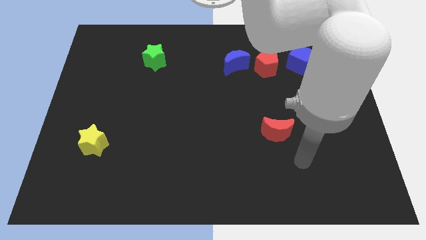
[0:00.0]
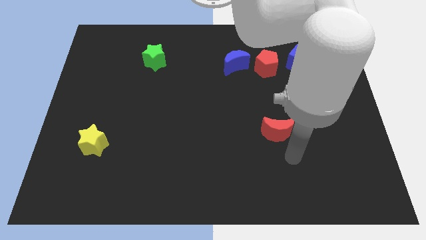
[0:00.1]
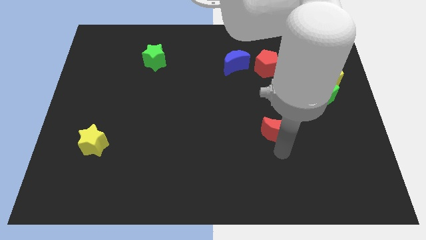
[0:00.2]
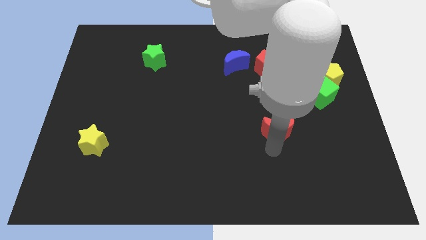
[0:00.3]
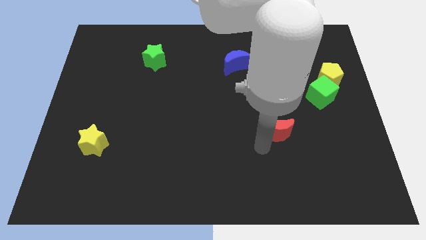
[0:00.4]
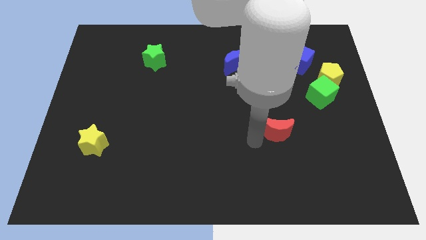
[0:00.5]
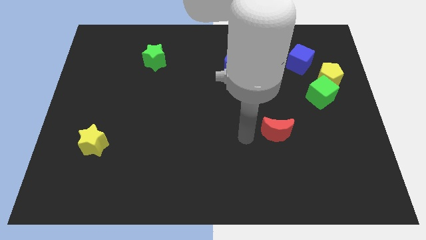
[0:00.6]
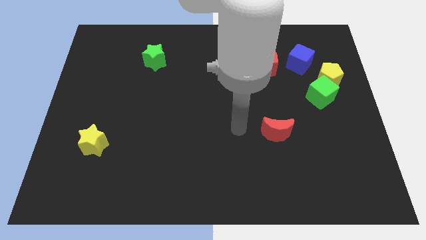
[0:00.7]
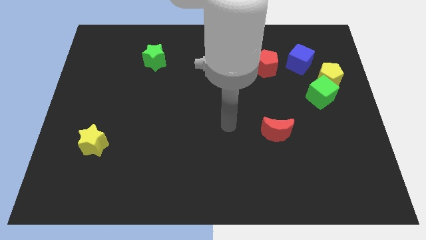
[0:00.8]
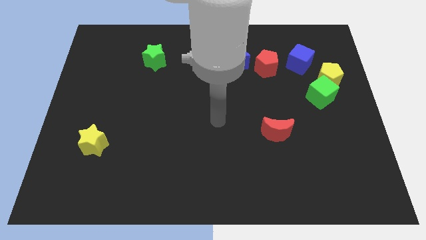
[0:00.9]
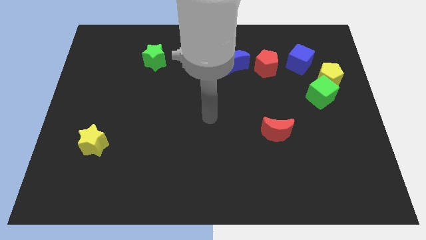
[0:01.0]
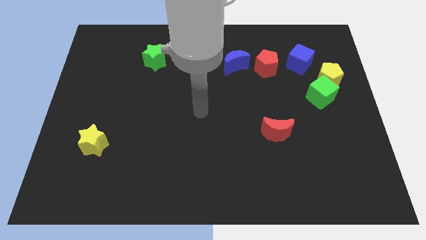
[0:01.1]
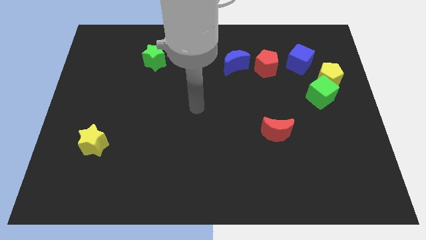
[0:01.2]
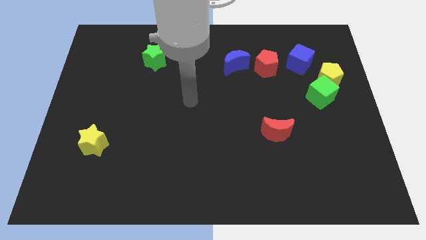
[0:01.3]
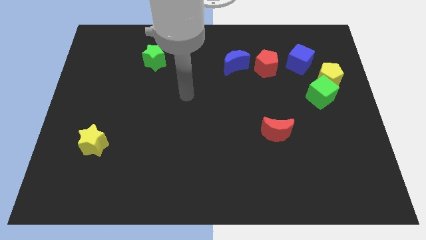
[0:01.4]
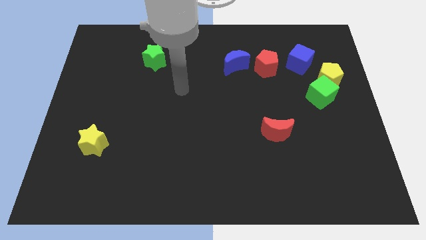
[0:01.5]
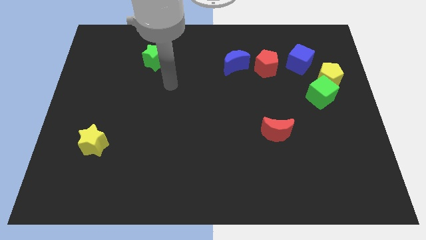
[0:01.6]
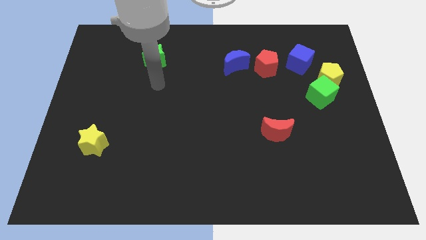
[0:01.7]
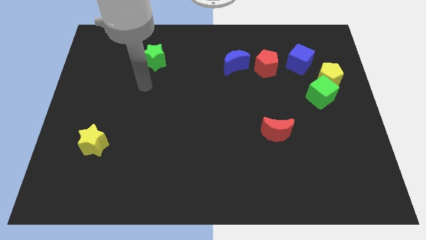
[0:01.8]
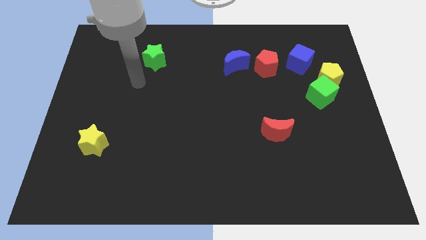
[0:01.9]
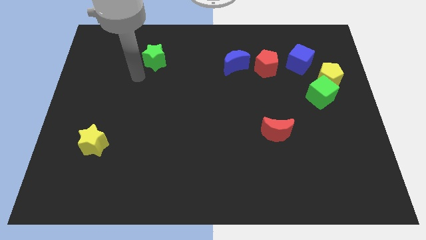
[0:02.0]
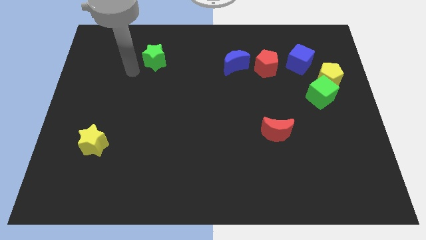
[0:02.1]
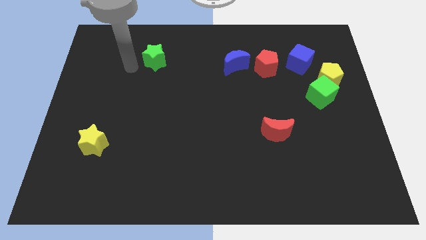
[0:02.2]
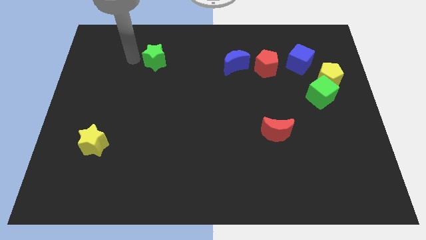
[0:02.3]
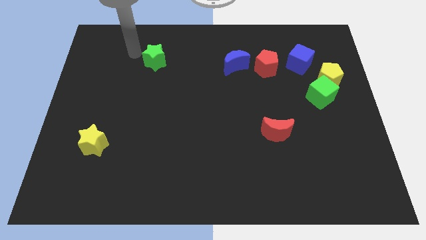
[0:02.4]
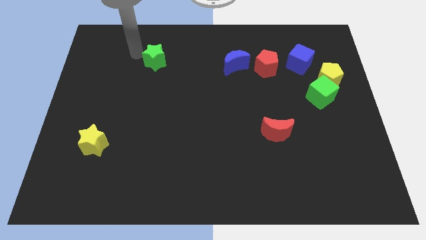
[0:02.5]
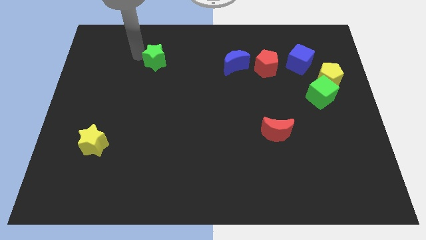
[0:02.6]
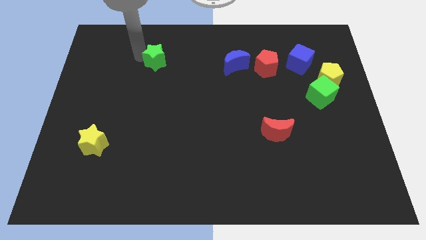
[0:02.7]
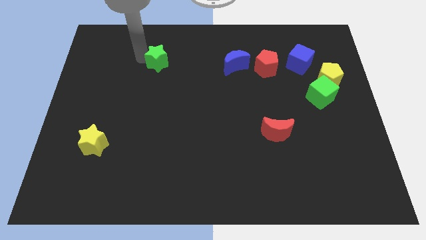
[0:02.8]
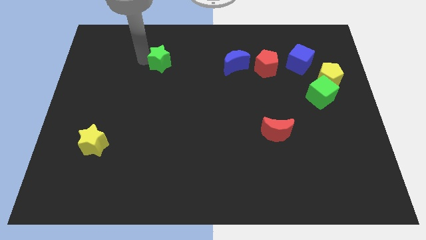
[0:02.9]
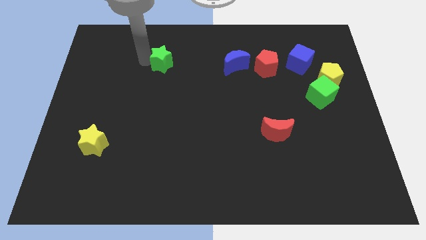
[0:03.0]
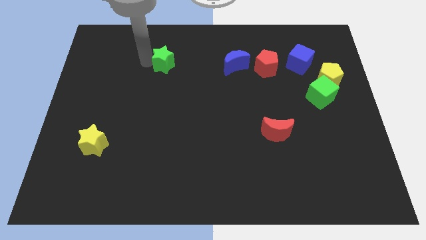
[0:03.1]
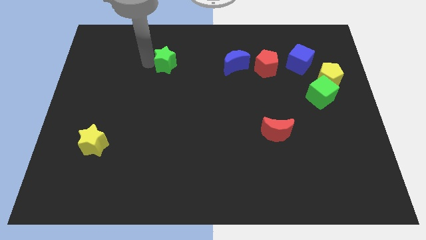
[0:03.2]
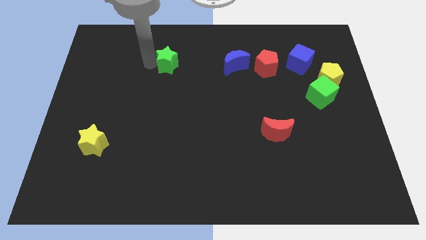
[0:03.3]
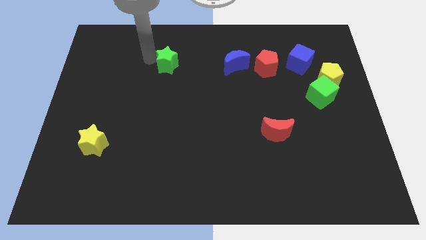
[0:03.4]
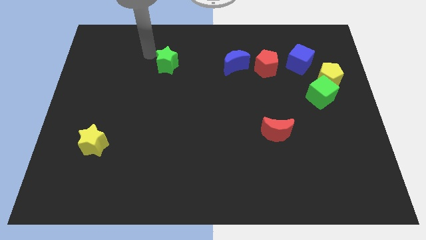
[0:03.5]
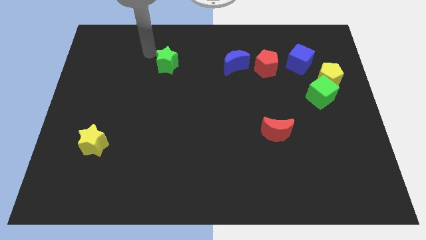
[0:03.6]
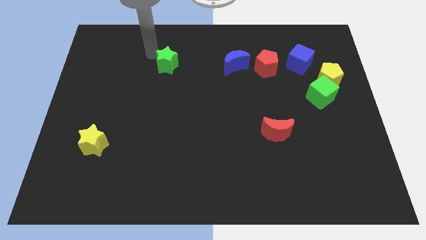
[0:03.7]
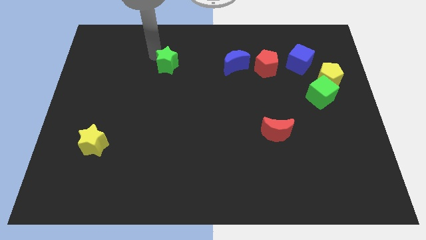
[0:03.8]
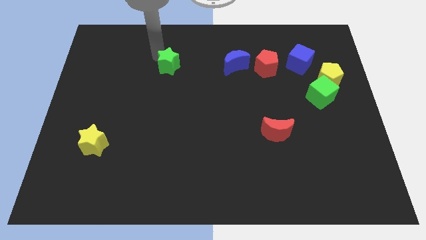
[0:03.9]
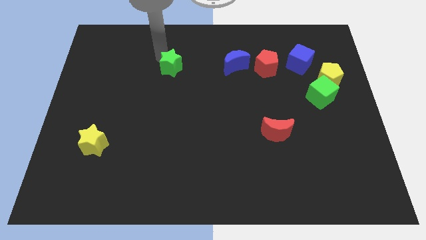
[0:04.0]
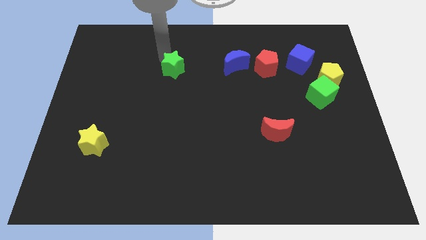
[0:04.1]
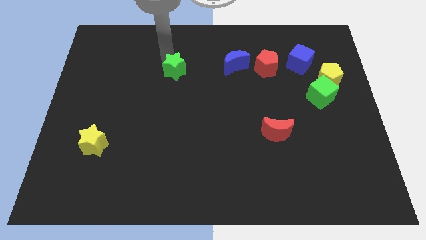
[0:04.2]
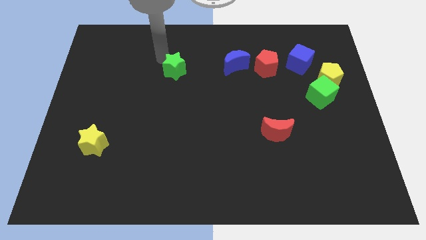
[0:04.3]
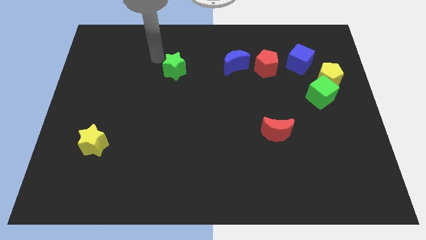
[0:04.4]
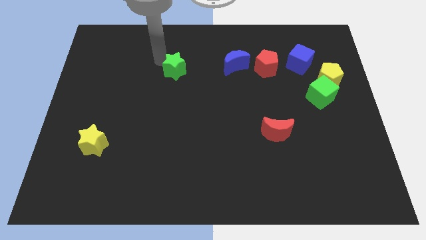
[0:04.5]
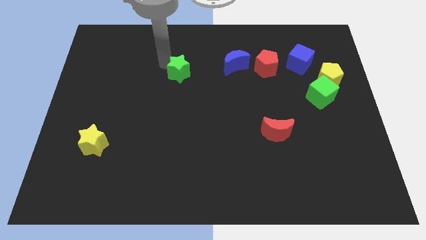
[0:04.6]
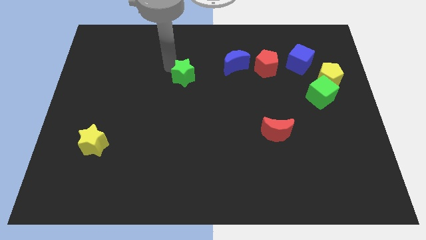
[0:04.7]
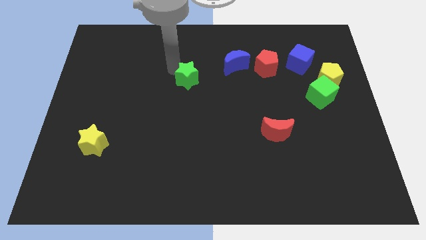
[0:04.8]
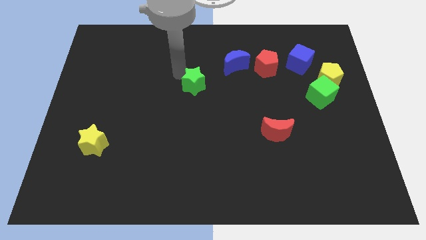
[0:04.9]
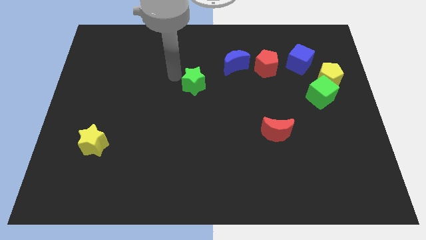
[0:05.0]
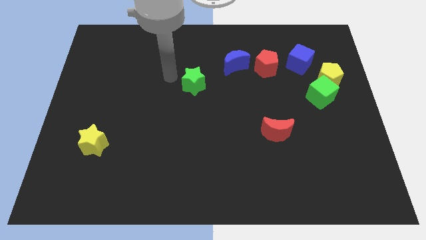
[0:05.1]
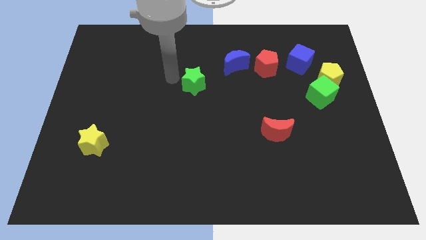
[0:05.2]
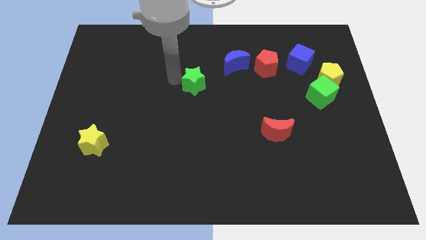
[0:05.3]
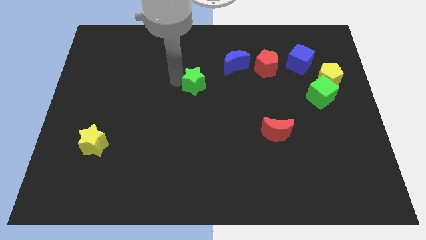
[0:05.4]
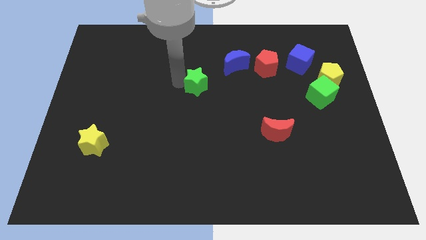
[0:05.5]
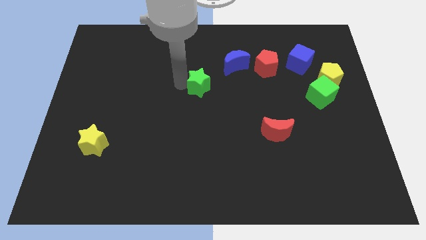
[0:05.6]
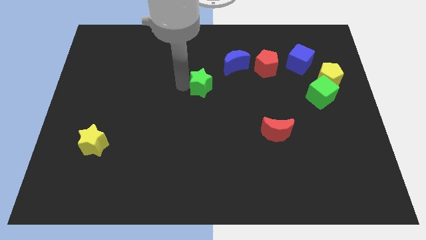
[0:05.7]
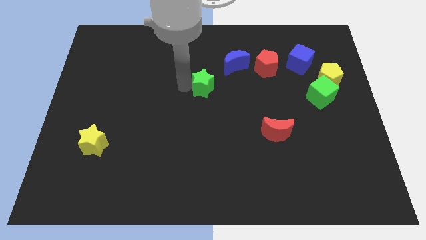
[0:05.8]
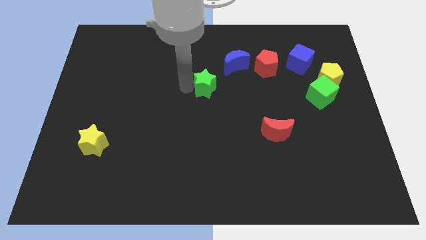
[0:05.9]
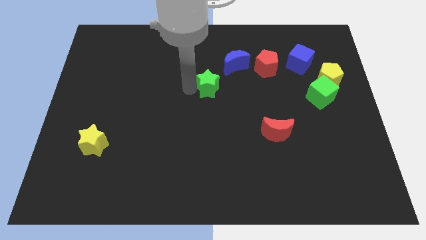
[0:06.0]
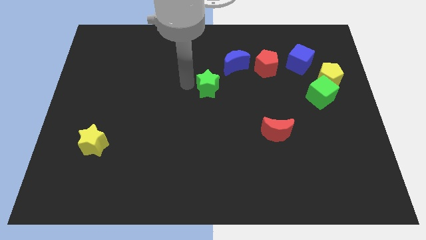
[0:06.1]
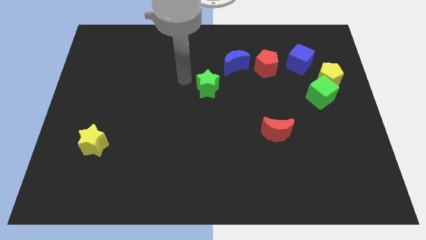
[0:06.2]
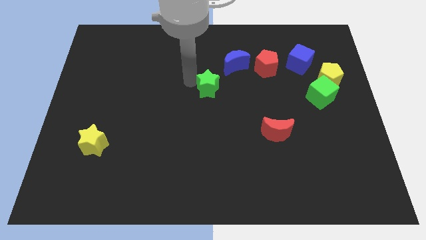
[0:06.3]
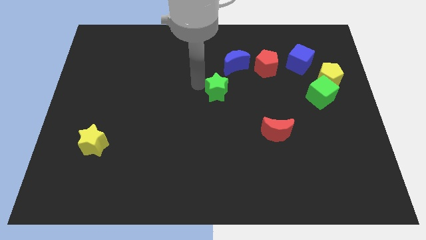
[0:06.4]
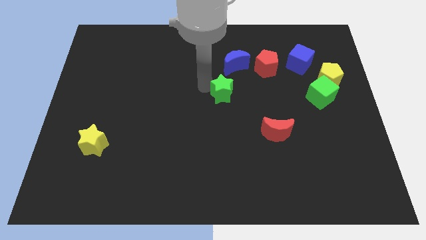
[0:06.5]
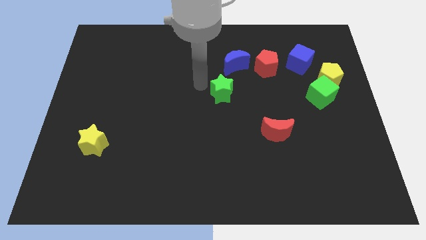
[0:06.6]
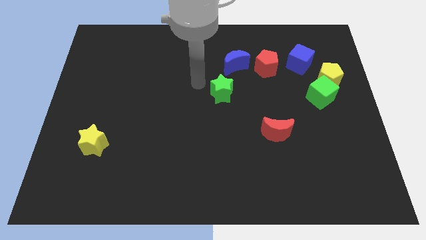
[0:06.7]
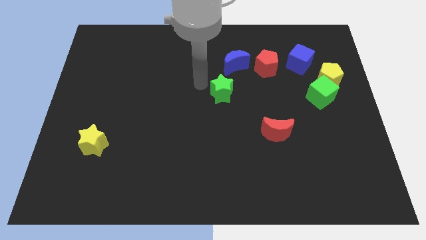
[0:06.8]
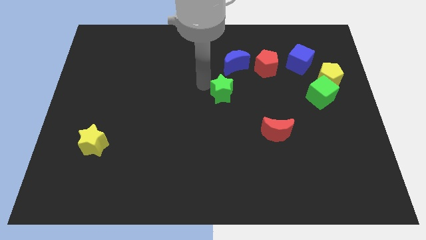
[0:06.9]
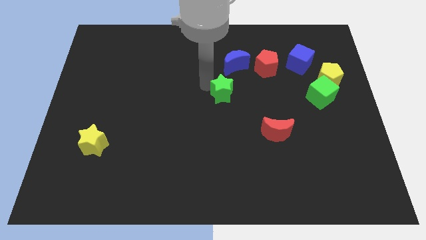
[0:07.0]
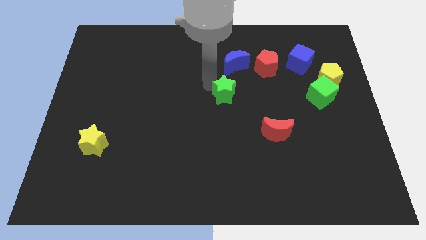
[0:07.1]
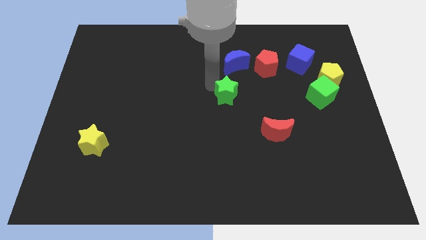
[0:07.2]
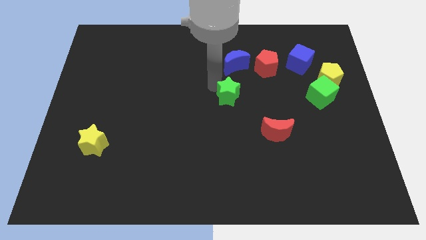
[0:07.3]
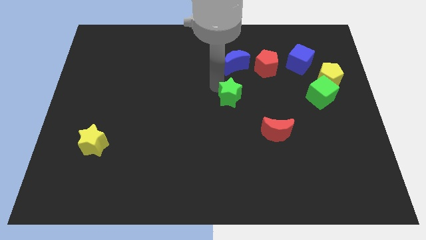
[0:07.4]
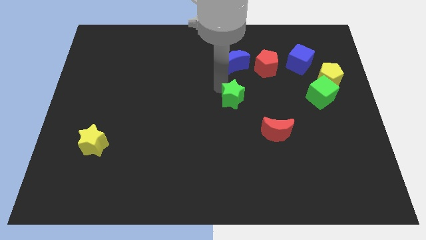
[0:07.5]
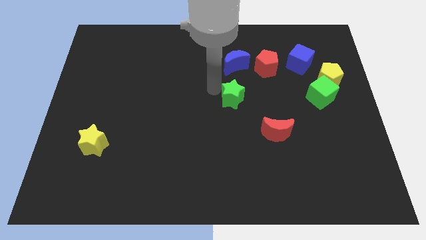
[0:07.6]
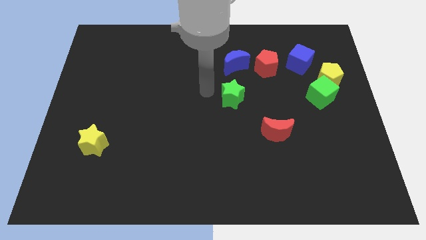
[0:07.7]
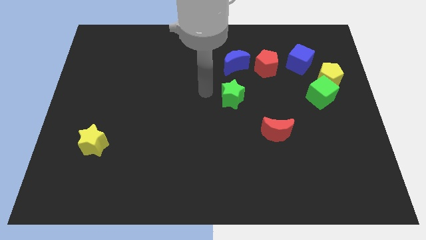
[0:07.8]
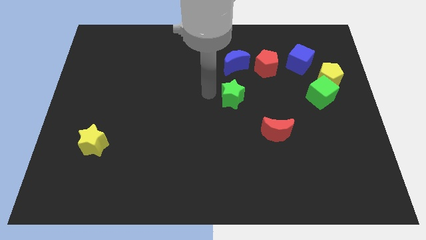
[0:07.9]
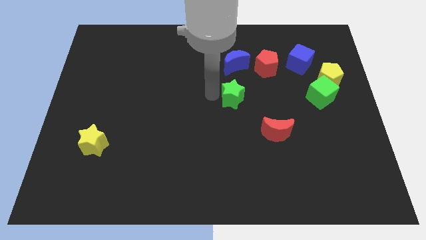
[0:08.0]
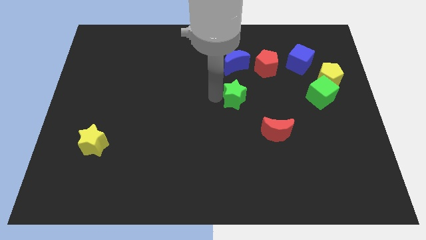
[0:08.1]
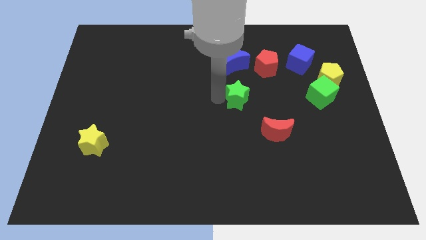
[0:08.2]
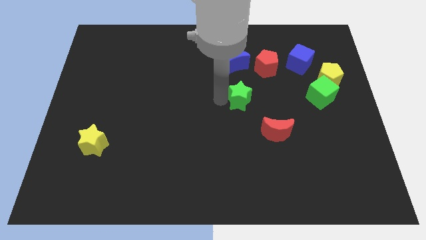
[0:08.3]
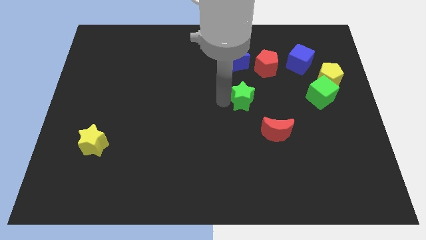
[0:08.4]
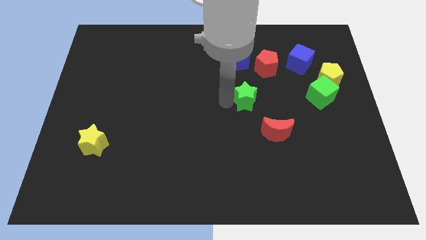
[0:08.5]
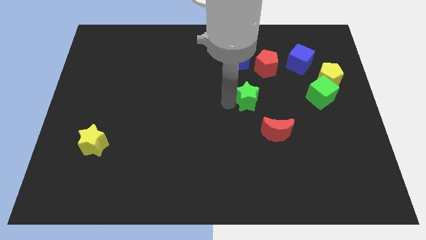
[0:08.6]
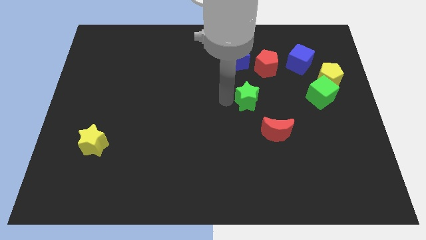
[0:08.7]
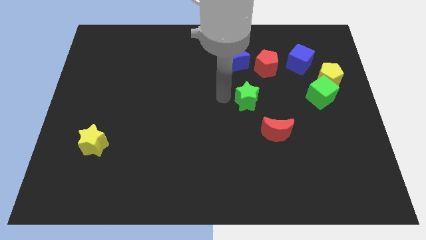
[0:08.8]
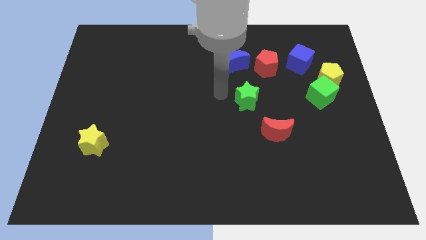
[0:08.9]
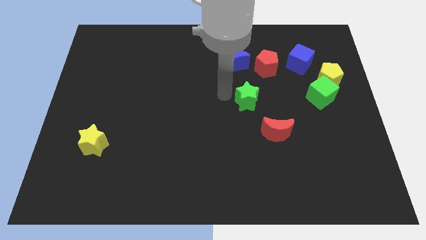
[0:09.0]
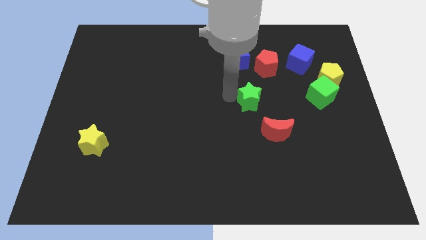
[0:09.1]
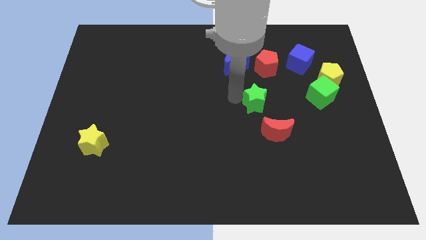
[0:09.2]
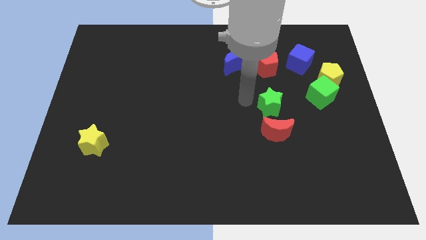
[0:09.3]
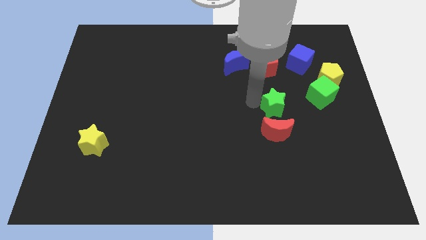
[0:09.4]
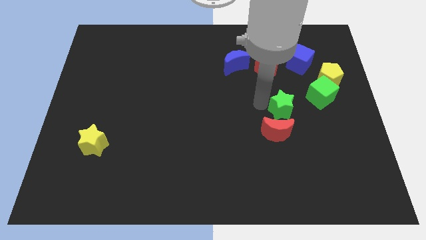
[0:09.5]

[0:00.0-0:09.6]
move the green star diagonally up and to the right of the red moon
